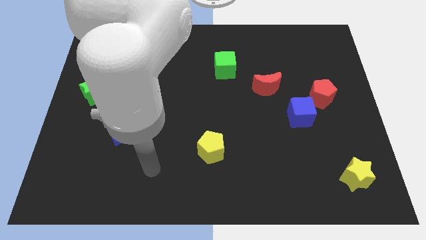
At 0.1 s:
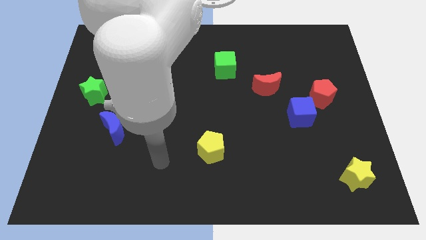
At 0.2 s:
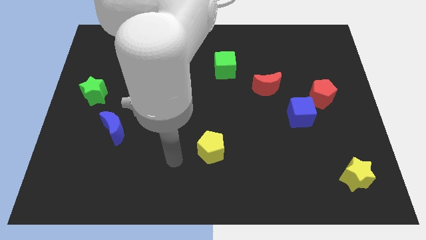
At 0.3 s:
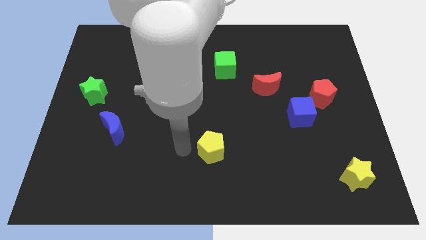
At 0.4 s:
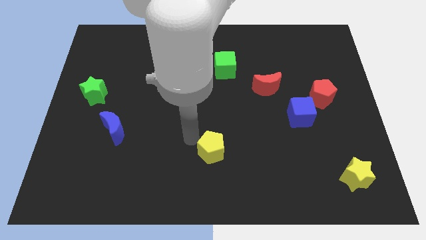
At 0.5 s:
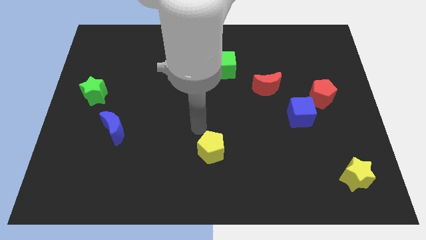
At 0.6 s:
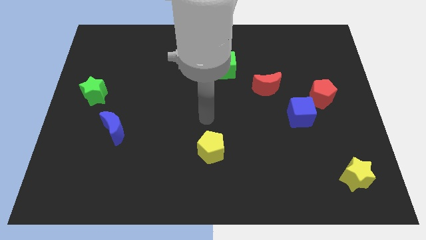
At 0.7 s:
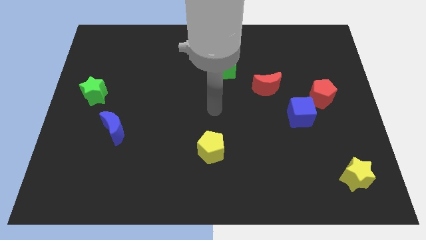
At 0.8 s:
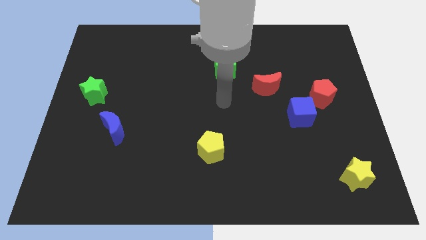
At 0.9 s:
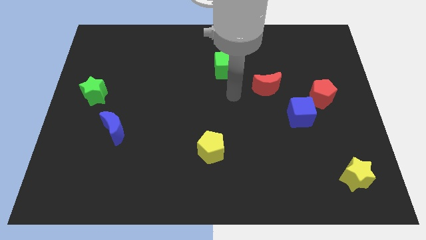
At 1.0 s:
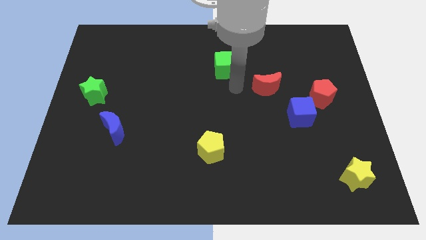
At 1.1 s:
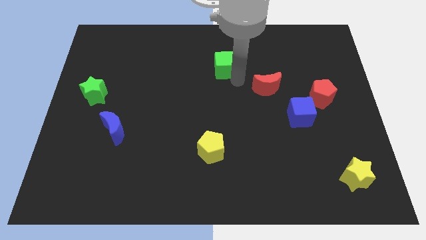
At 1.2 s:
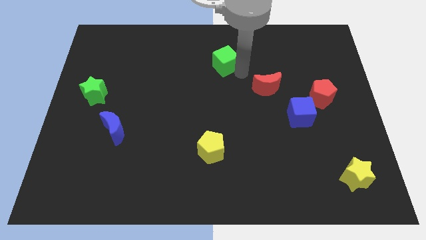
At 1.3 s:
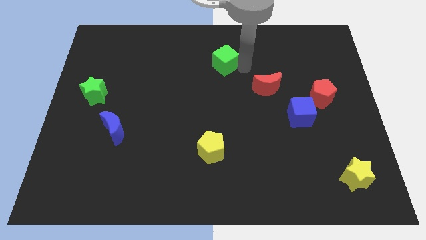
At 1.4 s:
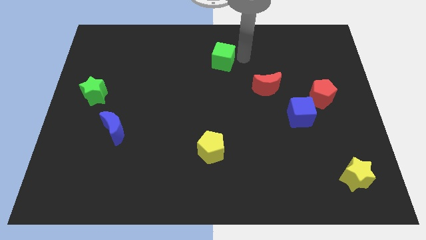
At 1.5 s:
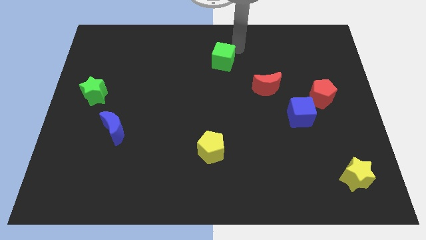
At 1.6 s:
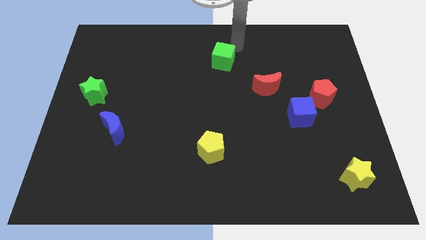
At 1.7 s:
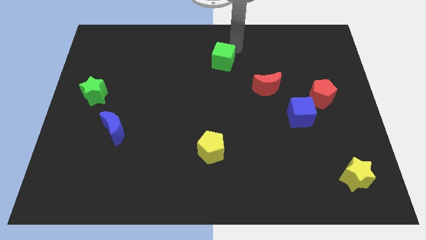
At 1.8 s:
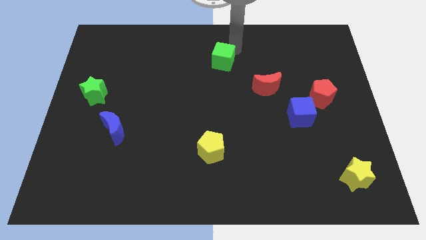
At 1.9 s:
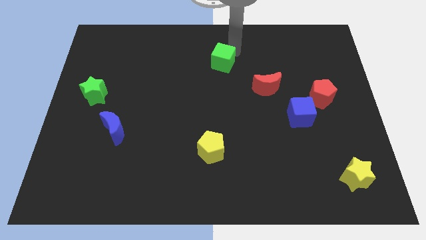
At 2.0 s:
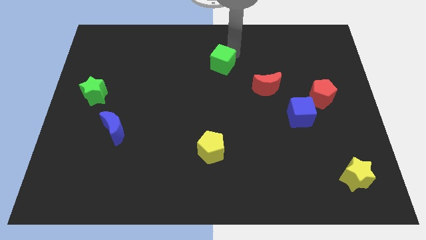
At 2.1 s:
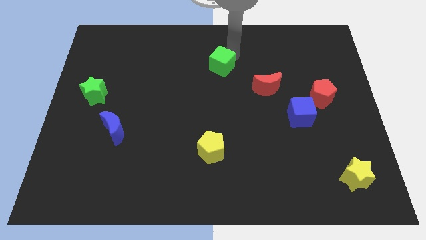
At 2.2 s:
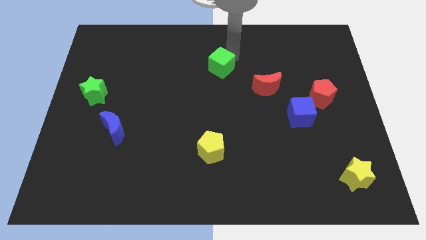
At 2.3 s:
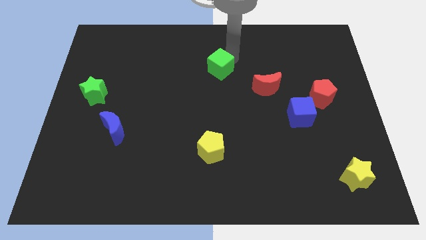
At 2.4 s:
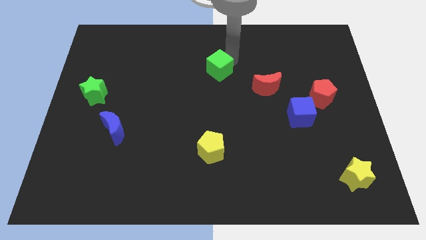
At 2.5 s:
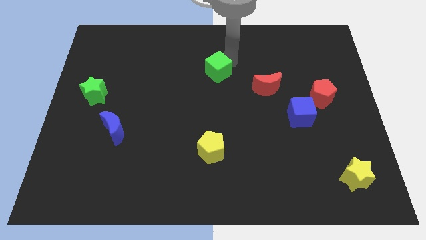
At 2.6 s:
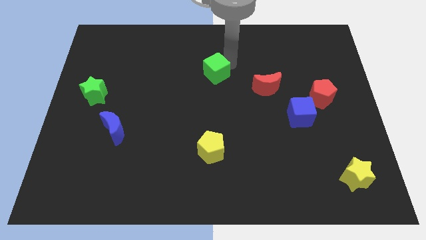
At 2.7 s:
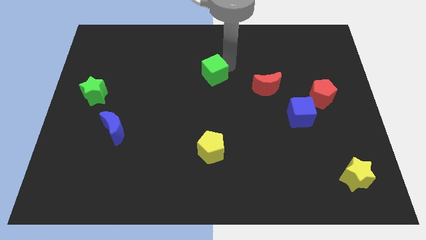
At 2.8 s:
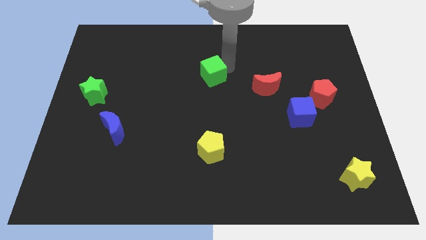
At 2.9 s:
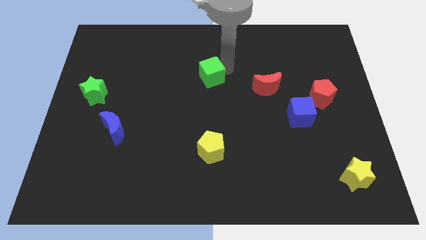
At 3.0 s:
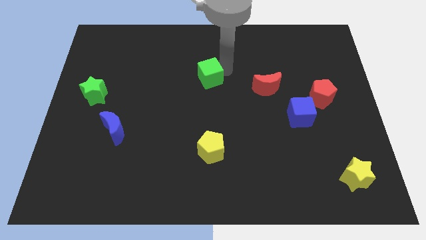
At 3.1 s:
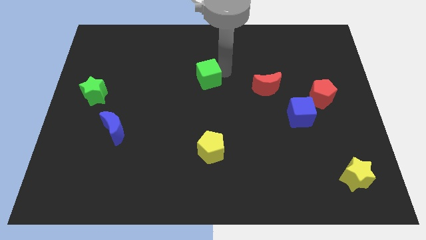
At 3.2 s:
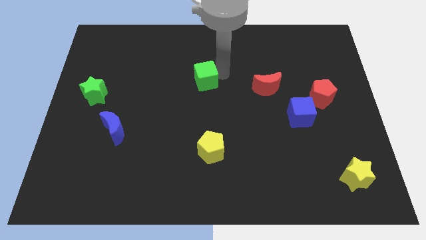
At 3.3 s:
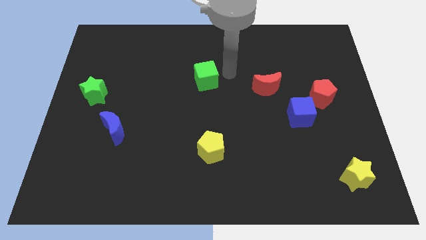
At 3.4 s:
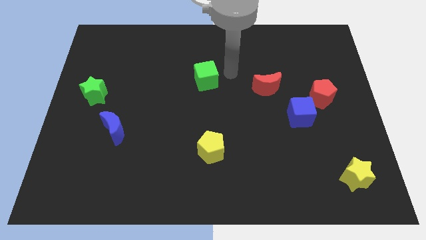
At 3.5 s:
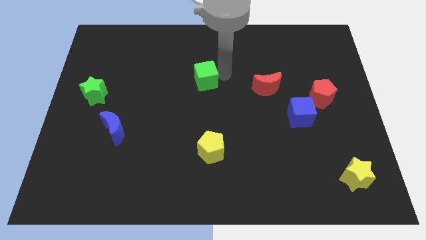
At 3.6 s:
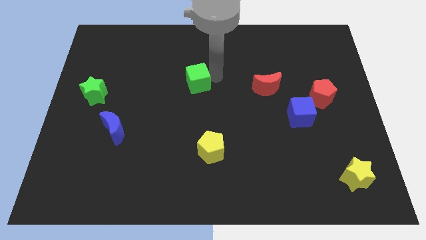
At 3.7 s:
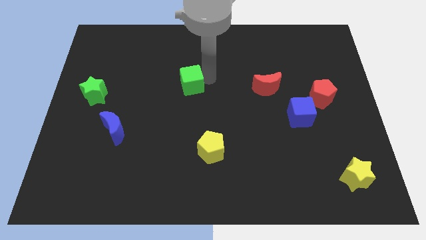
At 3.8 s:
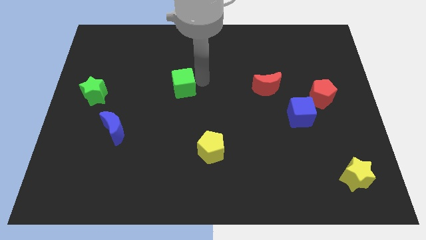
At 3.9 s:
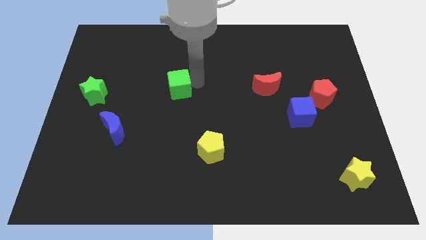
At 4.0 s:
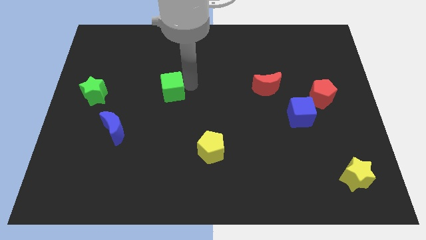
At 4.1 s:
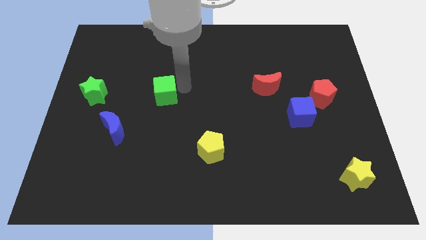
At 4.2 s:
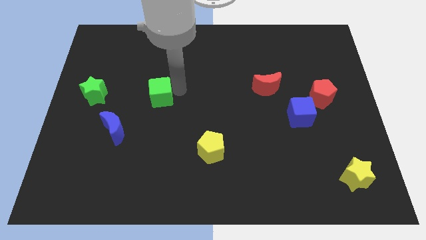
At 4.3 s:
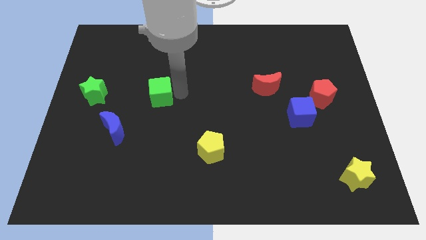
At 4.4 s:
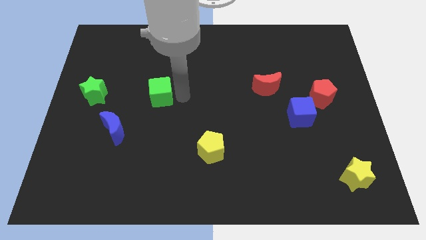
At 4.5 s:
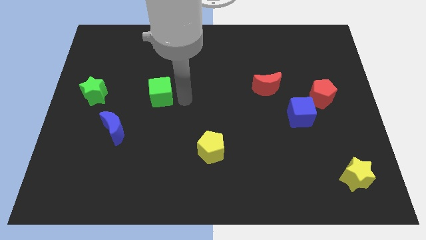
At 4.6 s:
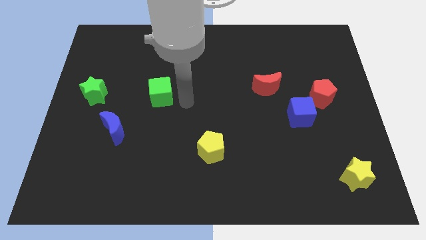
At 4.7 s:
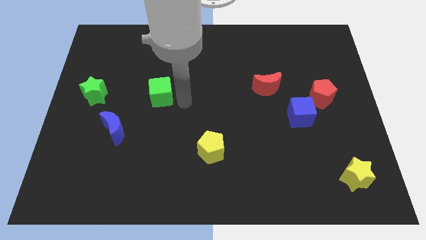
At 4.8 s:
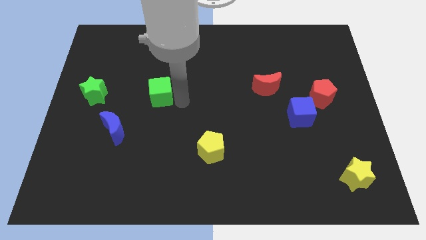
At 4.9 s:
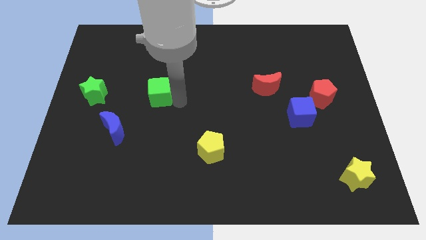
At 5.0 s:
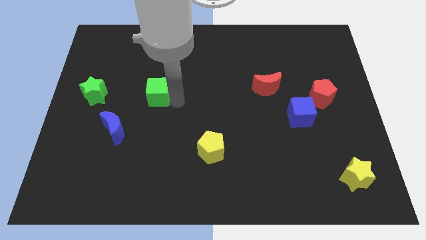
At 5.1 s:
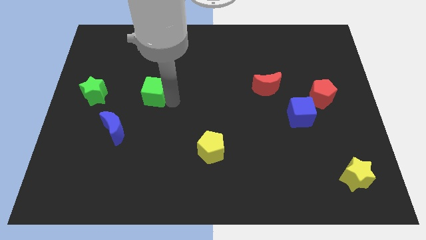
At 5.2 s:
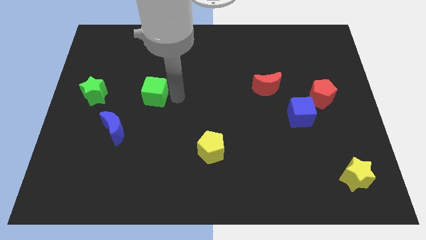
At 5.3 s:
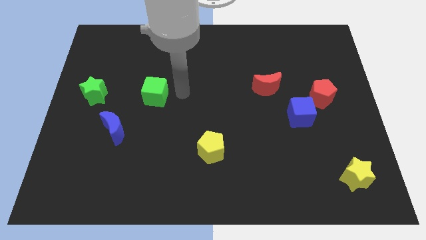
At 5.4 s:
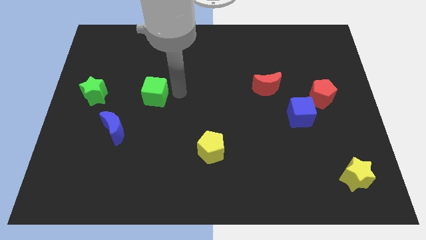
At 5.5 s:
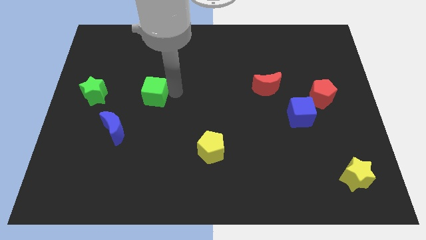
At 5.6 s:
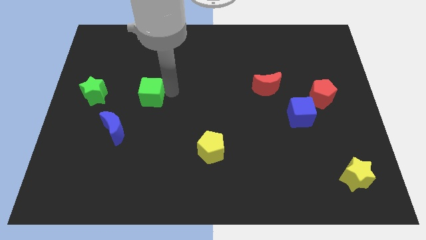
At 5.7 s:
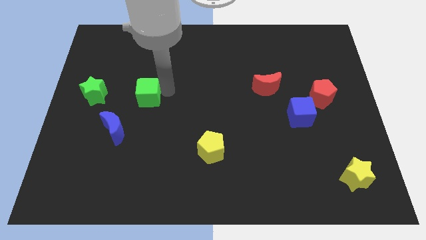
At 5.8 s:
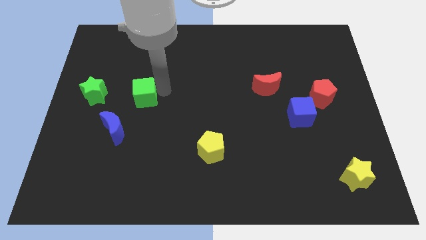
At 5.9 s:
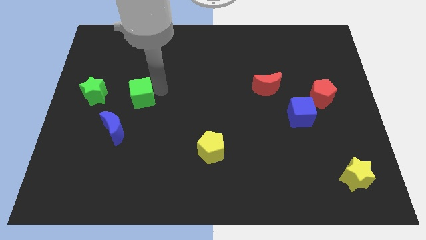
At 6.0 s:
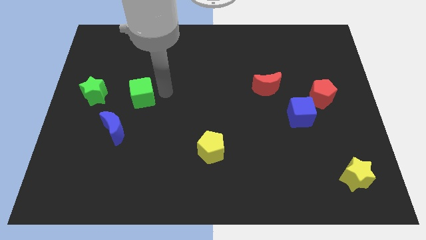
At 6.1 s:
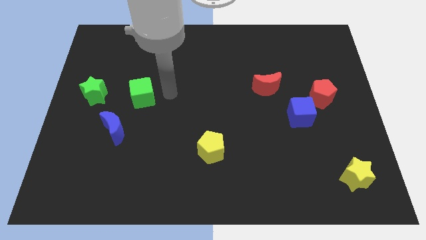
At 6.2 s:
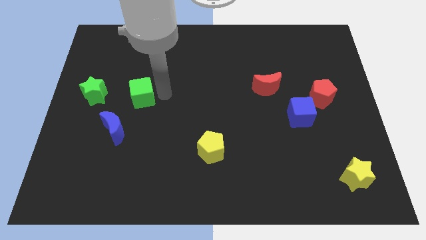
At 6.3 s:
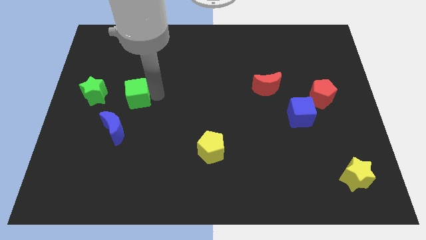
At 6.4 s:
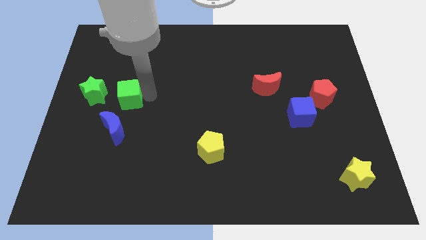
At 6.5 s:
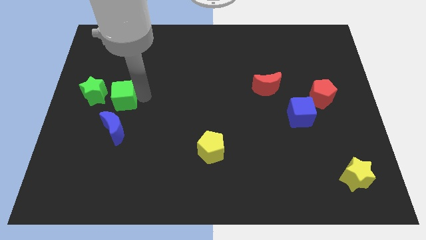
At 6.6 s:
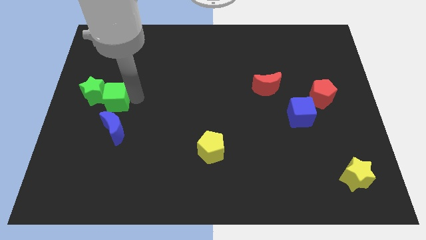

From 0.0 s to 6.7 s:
put the green cube to the green star

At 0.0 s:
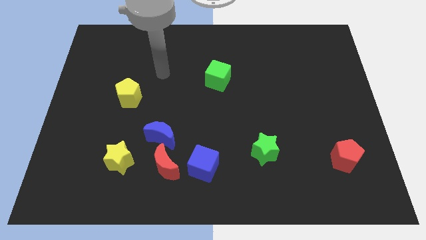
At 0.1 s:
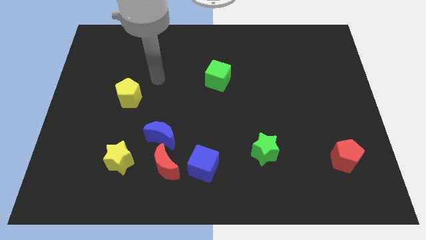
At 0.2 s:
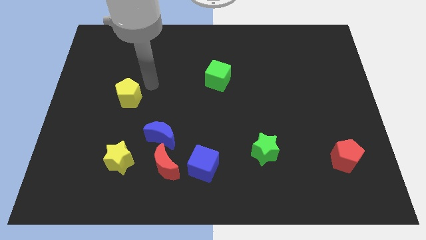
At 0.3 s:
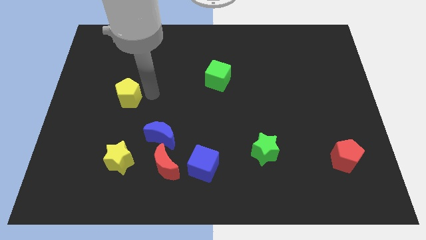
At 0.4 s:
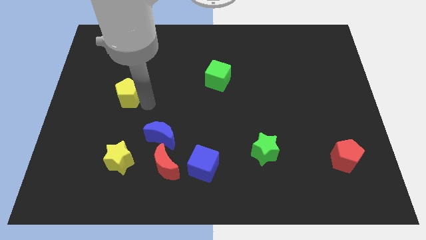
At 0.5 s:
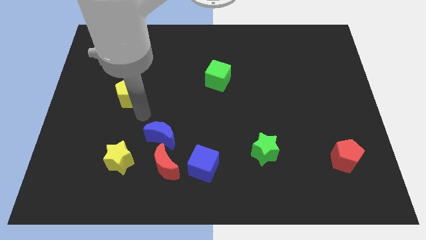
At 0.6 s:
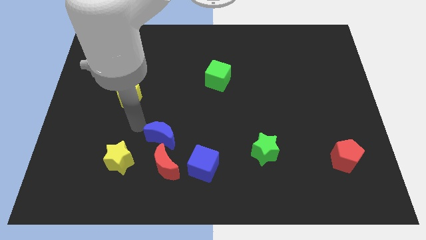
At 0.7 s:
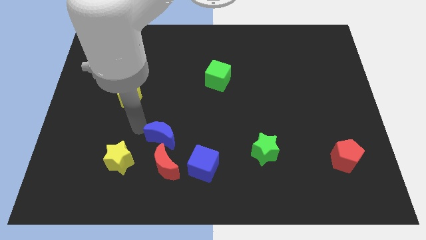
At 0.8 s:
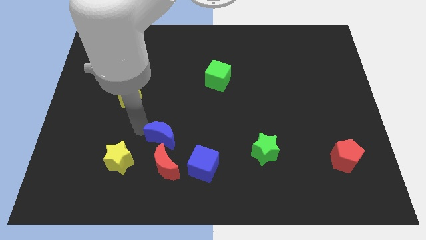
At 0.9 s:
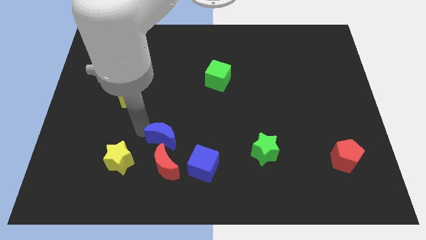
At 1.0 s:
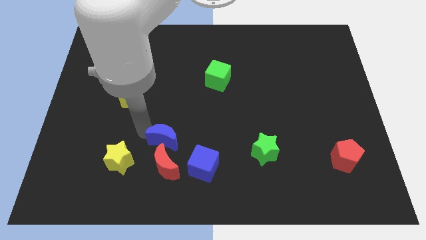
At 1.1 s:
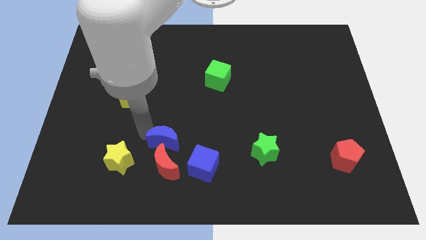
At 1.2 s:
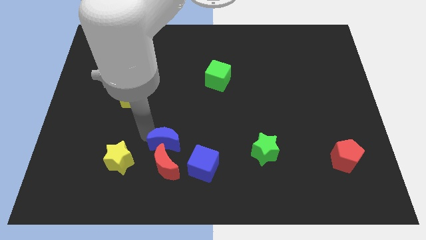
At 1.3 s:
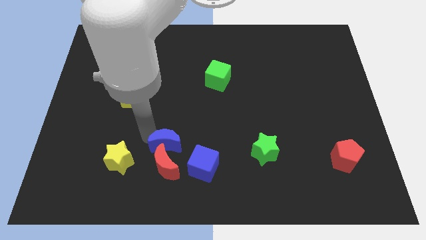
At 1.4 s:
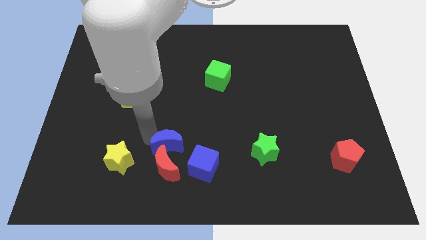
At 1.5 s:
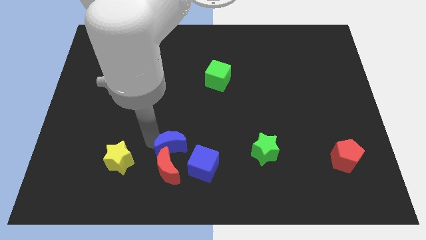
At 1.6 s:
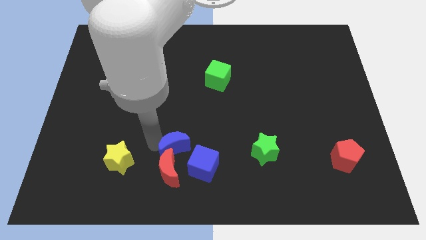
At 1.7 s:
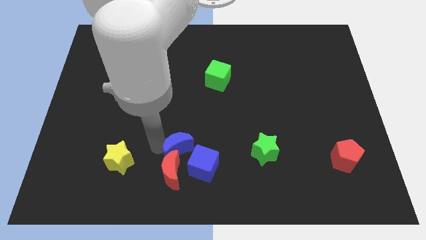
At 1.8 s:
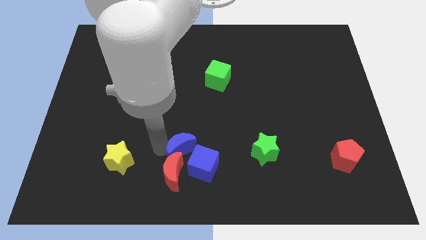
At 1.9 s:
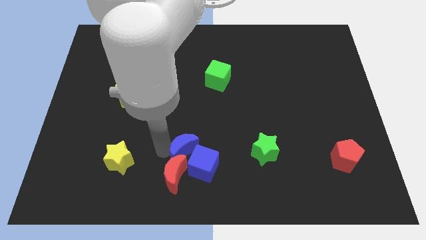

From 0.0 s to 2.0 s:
put the blue moon close to the blue cube
